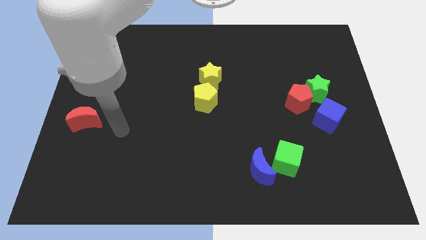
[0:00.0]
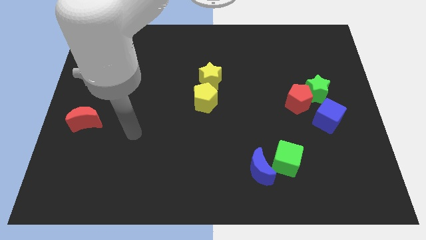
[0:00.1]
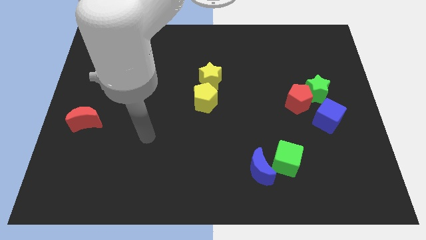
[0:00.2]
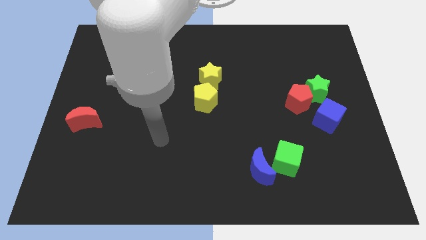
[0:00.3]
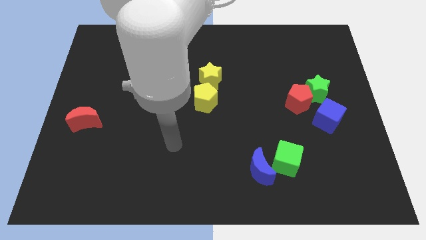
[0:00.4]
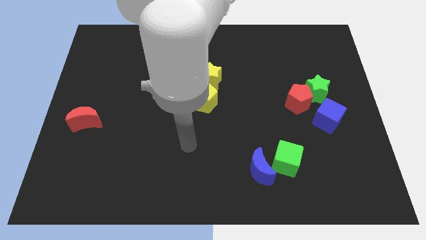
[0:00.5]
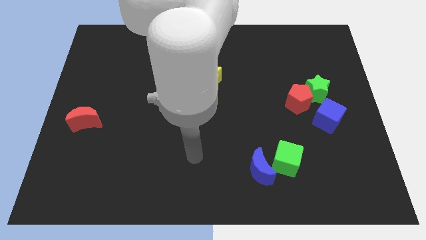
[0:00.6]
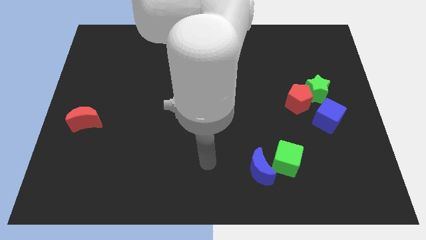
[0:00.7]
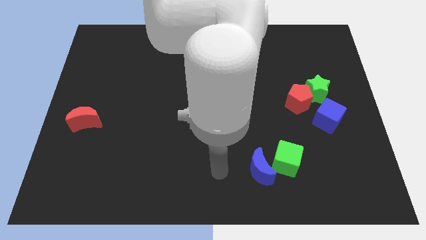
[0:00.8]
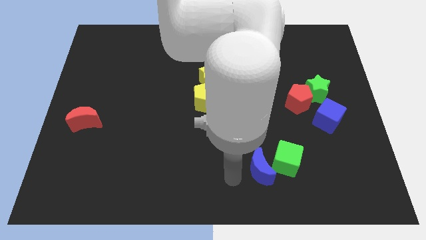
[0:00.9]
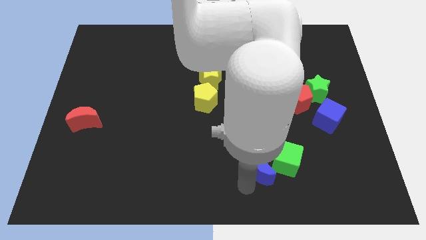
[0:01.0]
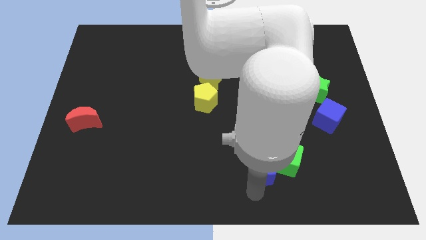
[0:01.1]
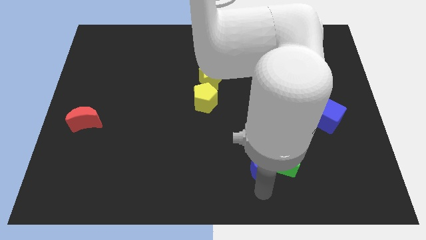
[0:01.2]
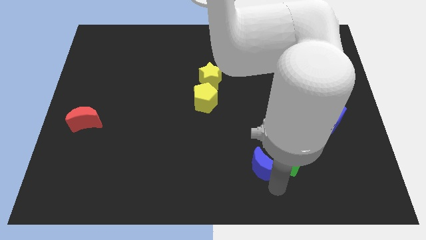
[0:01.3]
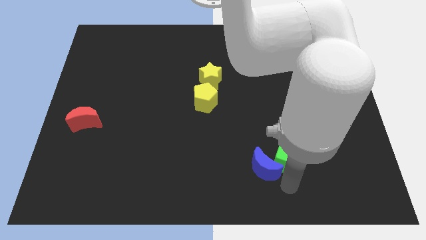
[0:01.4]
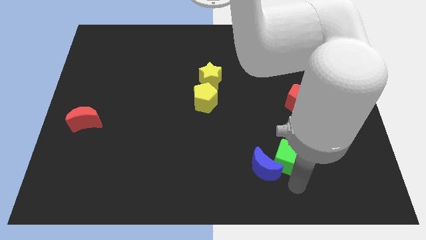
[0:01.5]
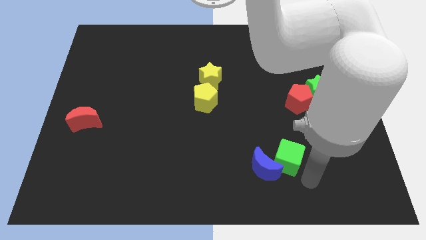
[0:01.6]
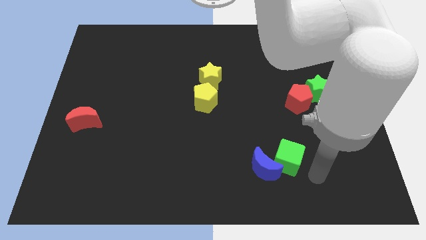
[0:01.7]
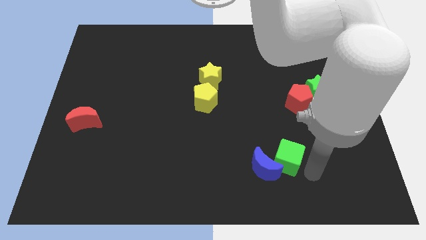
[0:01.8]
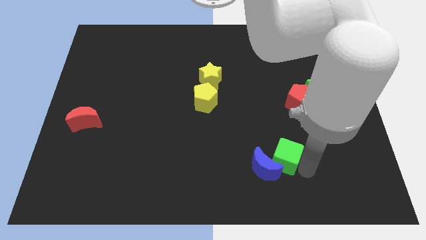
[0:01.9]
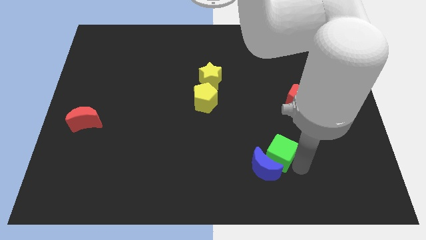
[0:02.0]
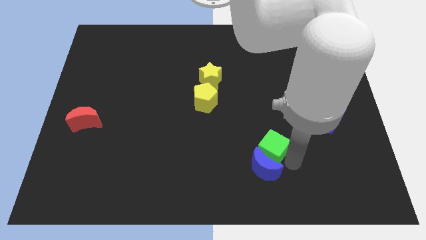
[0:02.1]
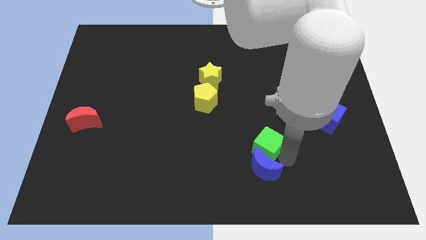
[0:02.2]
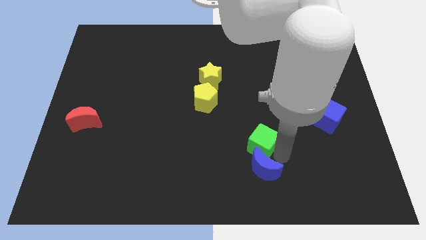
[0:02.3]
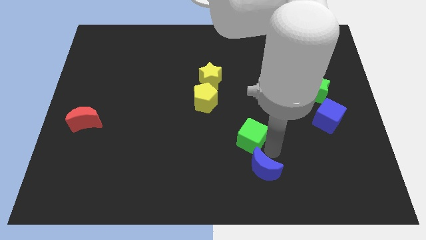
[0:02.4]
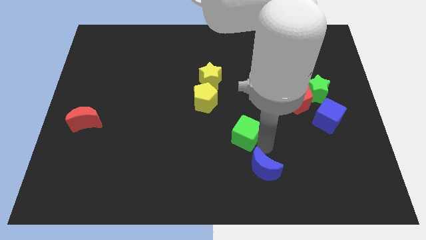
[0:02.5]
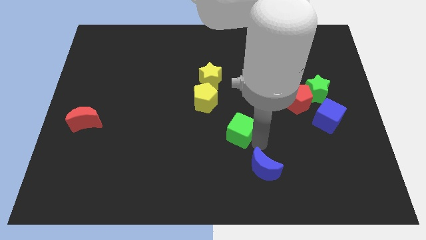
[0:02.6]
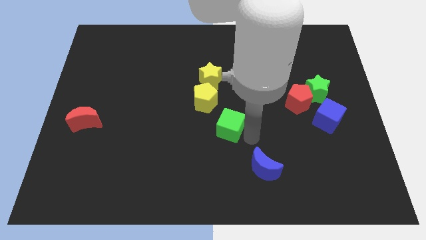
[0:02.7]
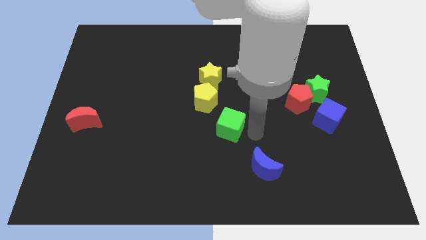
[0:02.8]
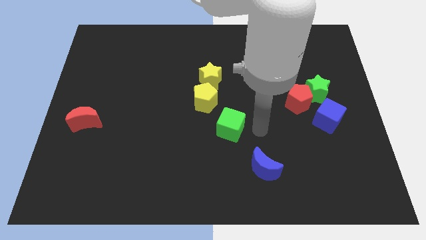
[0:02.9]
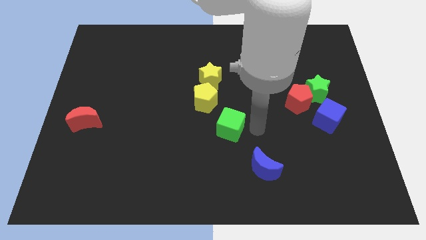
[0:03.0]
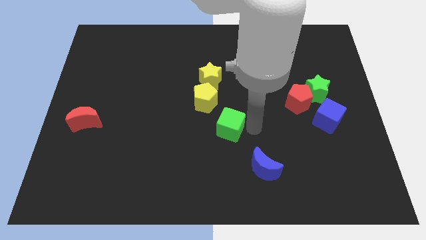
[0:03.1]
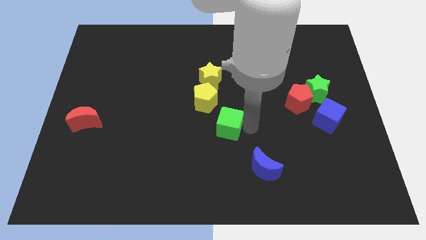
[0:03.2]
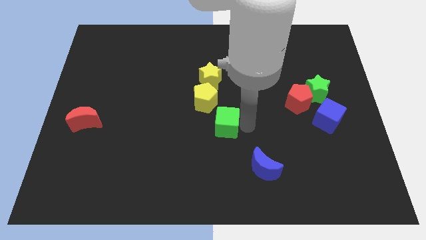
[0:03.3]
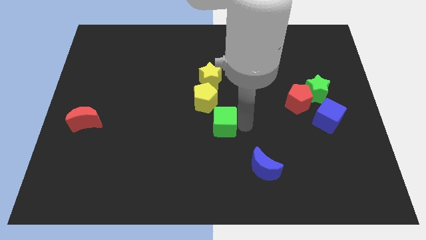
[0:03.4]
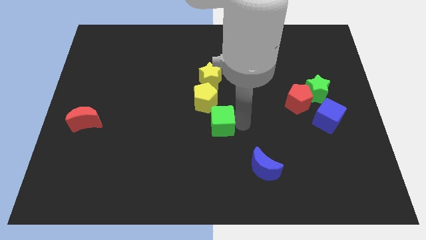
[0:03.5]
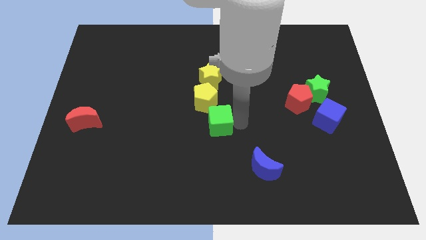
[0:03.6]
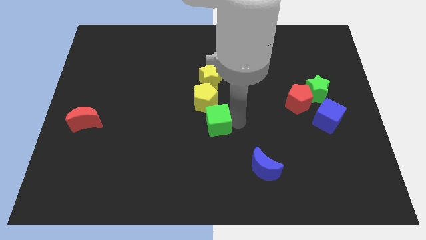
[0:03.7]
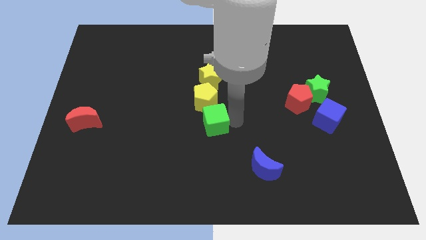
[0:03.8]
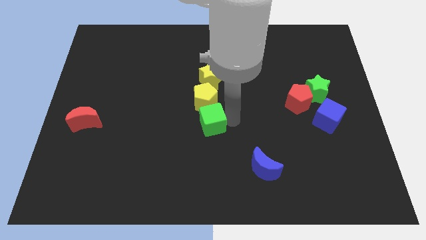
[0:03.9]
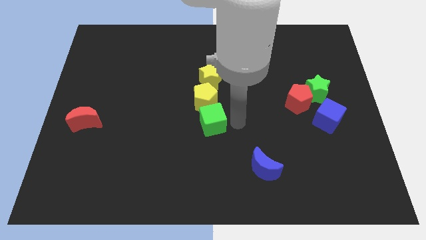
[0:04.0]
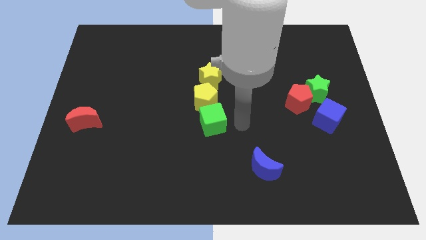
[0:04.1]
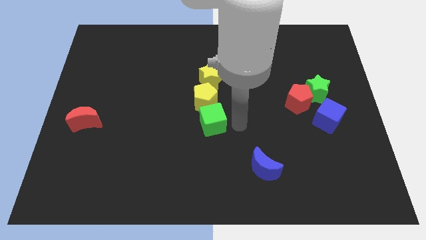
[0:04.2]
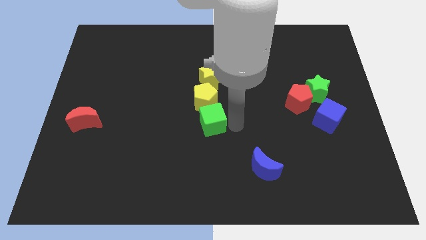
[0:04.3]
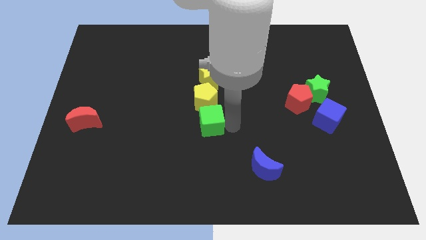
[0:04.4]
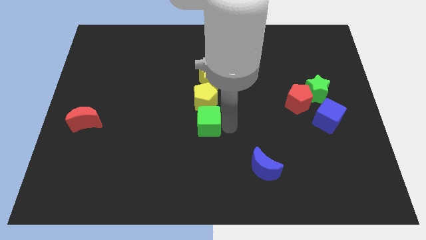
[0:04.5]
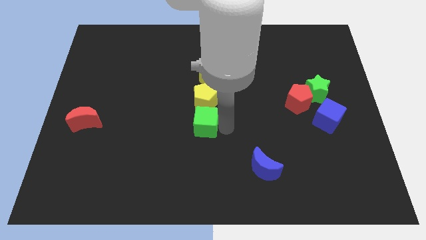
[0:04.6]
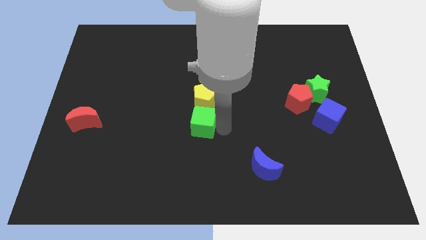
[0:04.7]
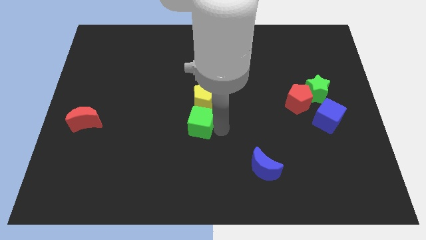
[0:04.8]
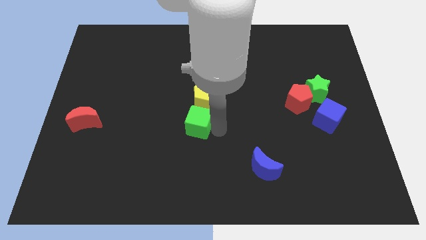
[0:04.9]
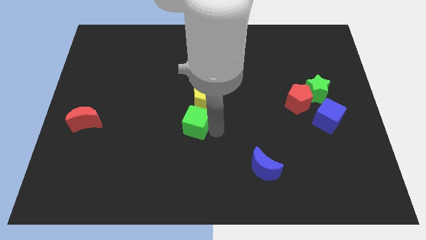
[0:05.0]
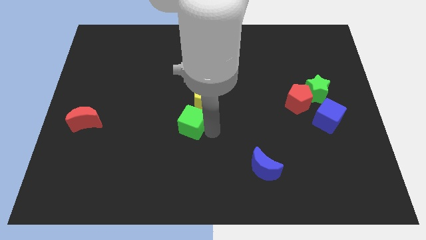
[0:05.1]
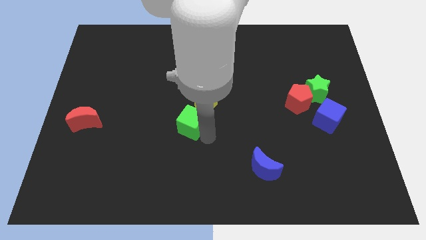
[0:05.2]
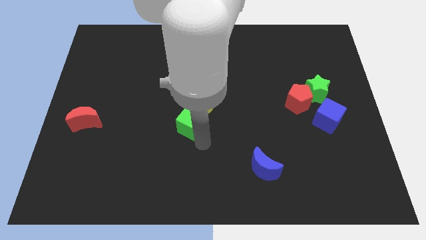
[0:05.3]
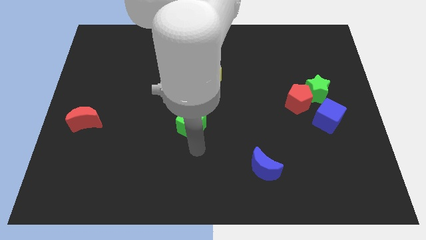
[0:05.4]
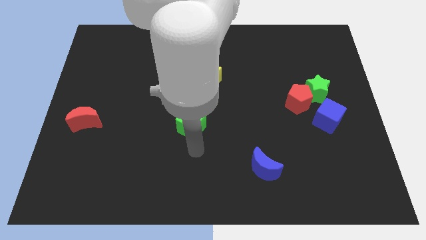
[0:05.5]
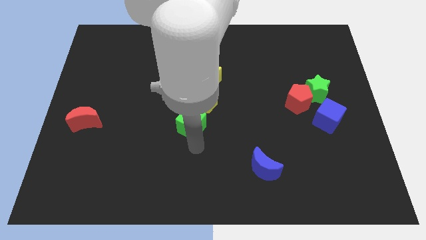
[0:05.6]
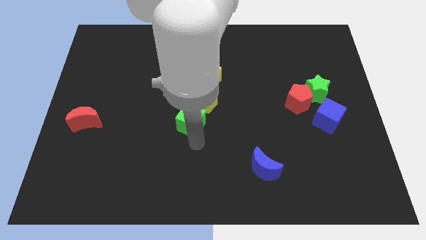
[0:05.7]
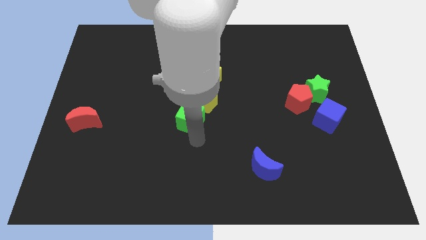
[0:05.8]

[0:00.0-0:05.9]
slide the green cube up and to the left

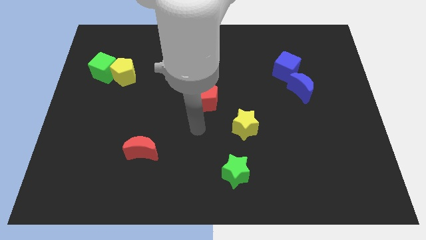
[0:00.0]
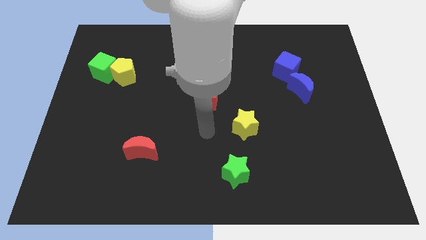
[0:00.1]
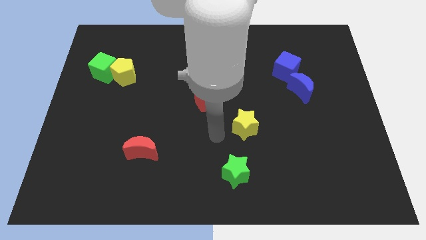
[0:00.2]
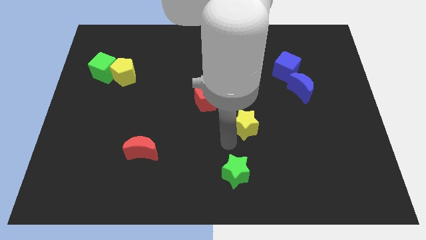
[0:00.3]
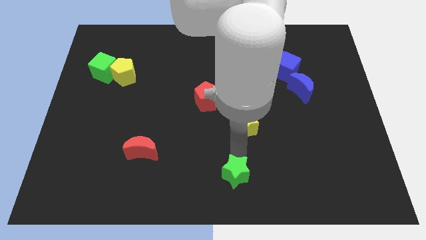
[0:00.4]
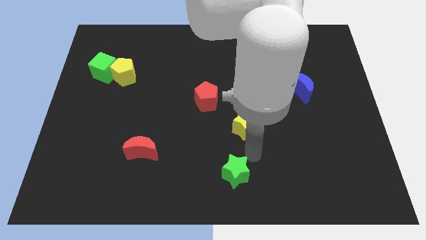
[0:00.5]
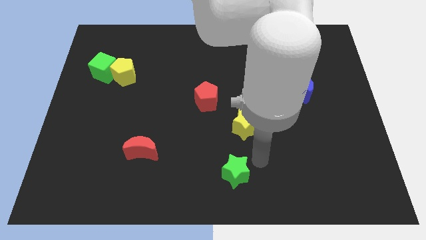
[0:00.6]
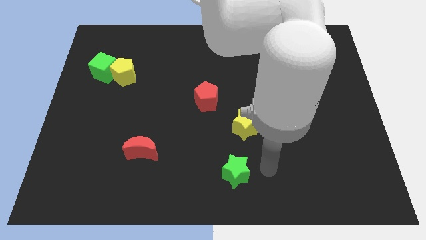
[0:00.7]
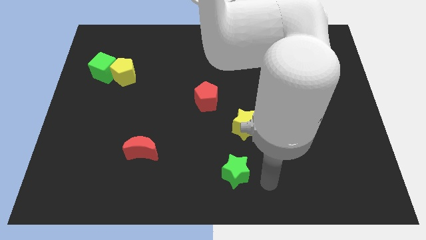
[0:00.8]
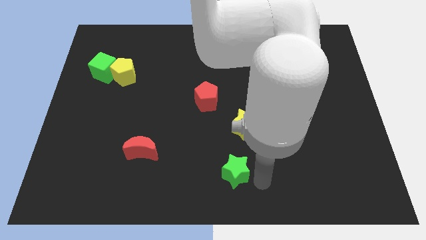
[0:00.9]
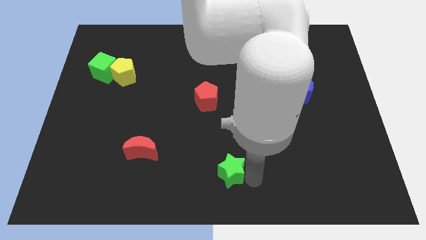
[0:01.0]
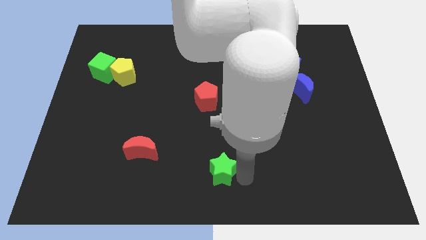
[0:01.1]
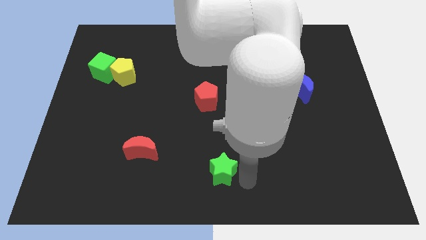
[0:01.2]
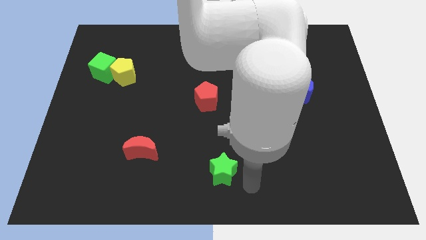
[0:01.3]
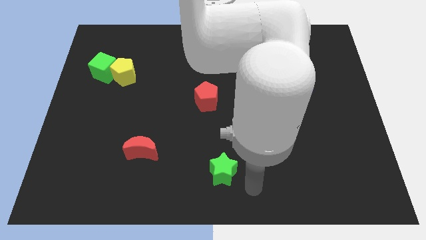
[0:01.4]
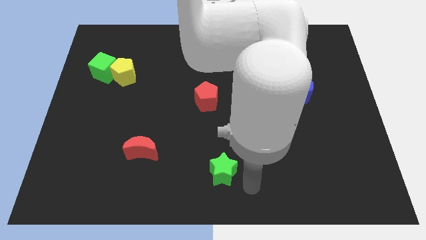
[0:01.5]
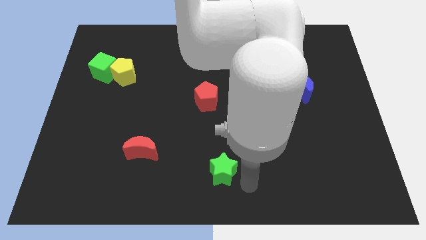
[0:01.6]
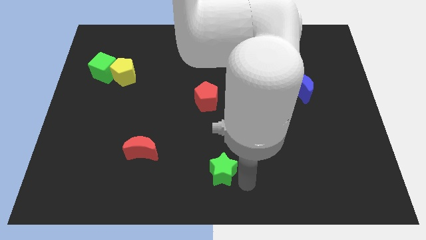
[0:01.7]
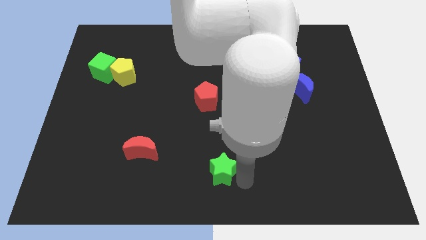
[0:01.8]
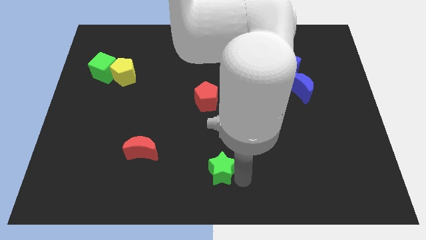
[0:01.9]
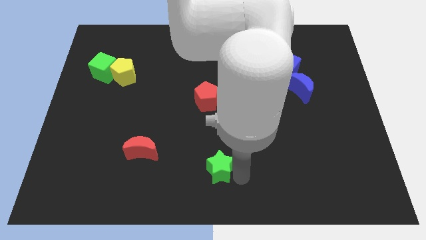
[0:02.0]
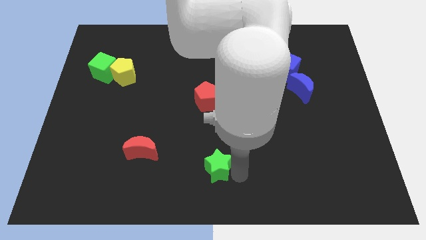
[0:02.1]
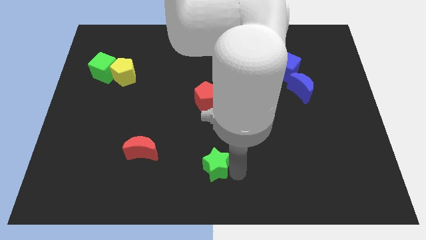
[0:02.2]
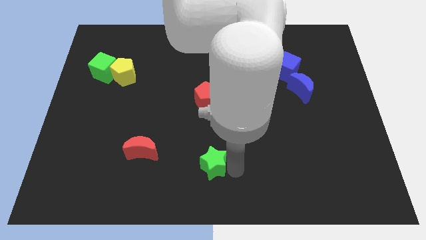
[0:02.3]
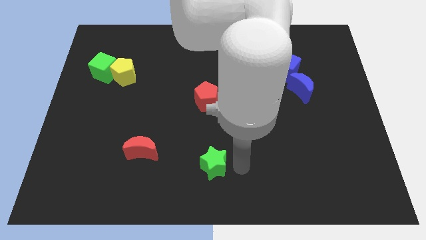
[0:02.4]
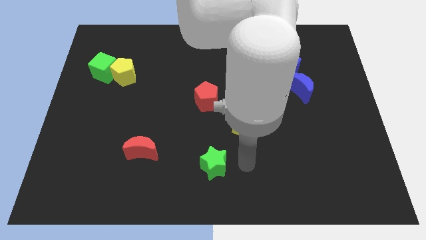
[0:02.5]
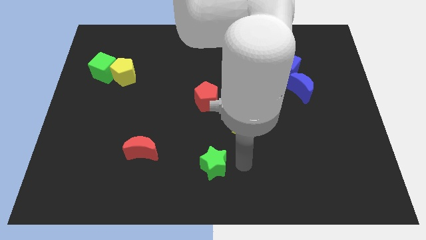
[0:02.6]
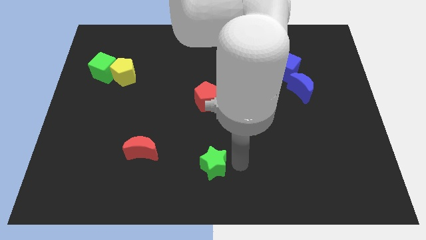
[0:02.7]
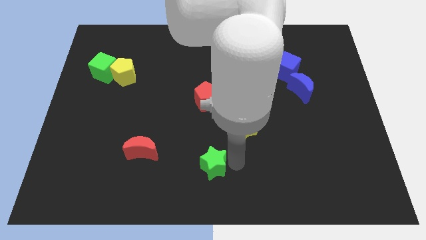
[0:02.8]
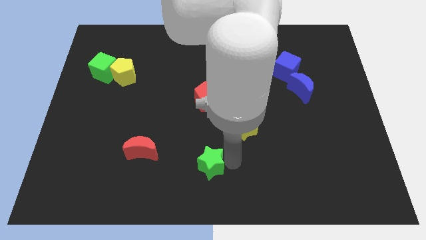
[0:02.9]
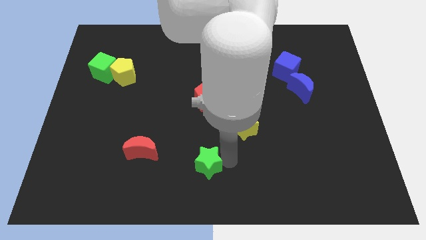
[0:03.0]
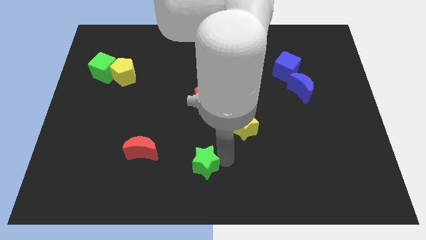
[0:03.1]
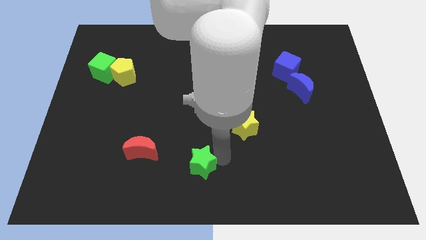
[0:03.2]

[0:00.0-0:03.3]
slightly move the green star left
